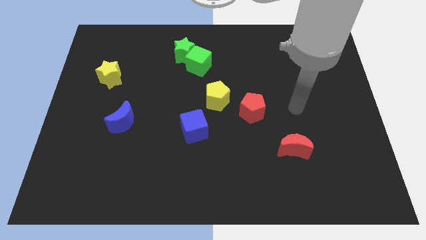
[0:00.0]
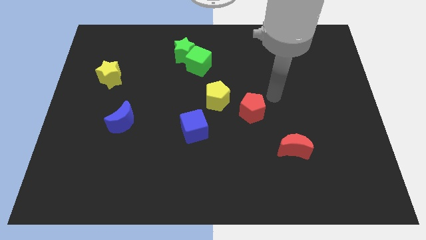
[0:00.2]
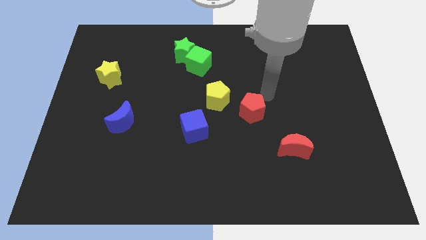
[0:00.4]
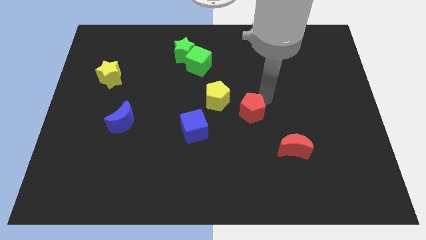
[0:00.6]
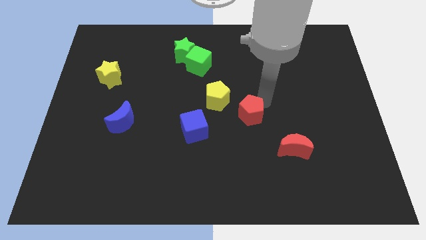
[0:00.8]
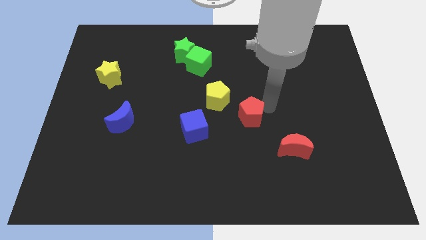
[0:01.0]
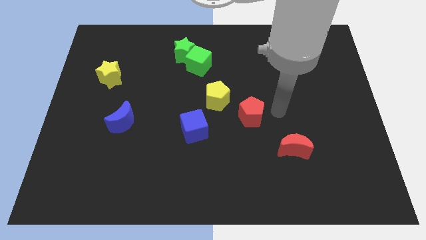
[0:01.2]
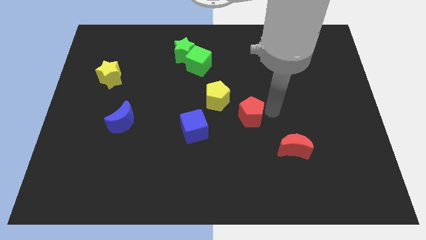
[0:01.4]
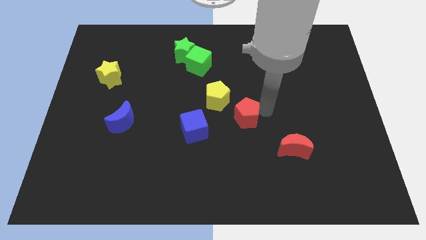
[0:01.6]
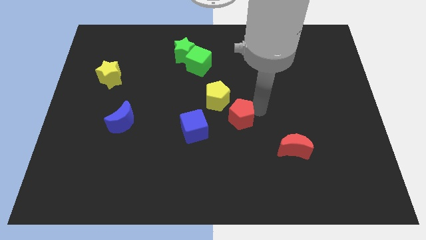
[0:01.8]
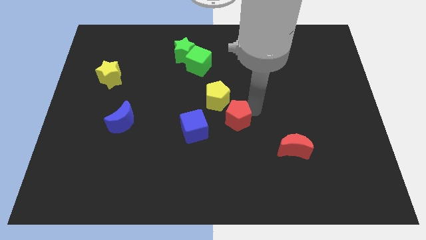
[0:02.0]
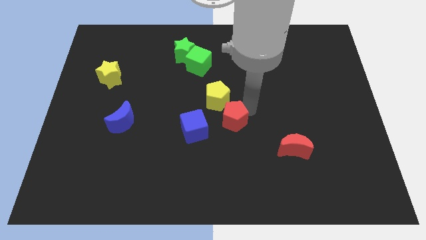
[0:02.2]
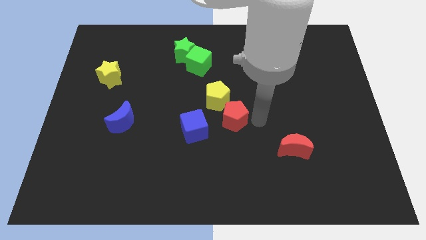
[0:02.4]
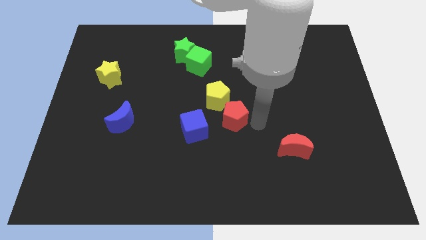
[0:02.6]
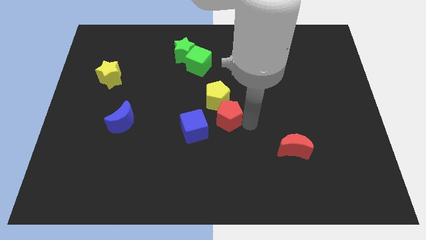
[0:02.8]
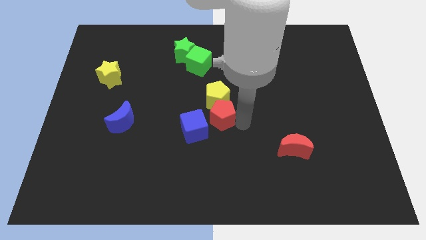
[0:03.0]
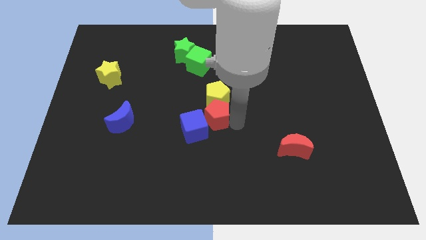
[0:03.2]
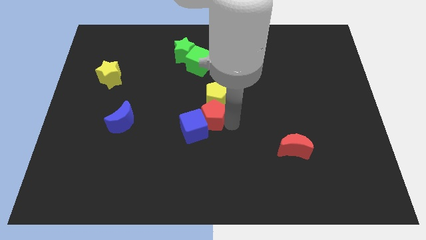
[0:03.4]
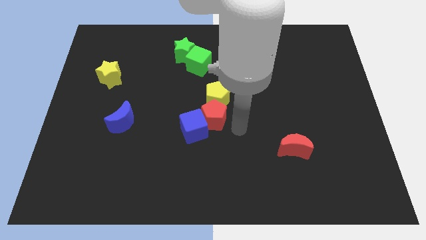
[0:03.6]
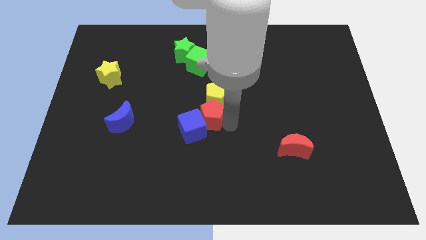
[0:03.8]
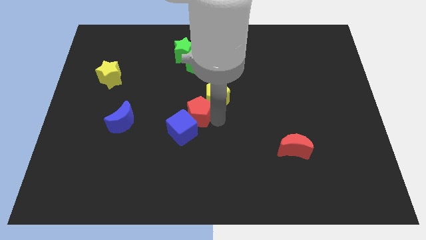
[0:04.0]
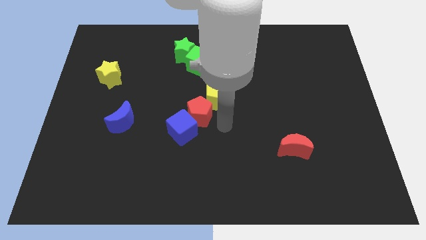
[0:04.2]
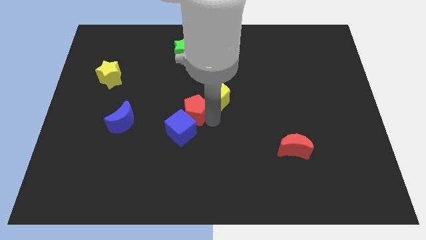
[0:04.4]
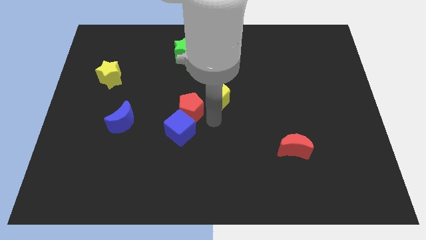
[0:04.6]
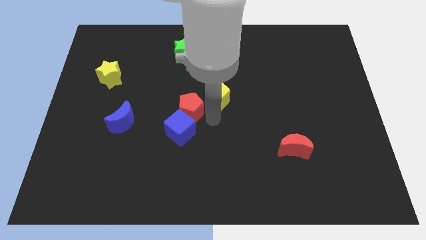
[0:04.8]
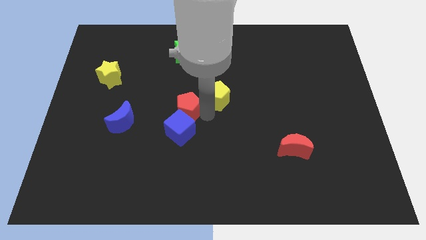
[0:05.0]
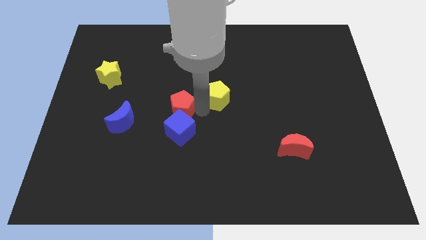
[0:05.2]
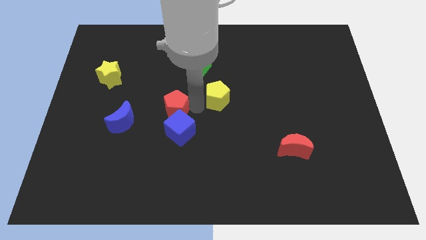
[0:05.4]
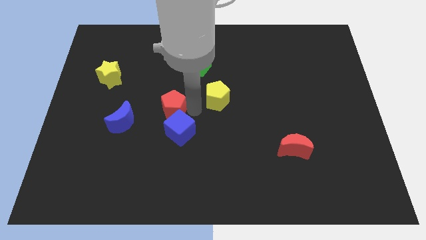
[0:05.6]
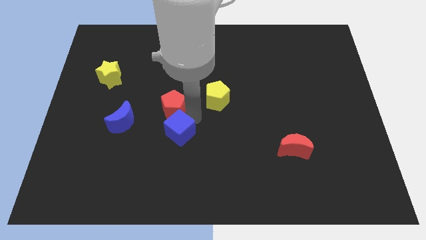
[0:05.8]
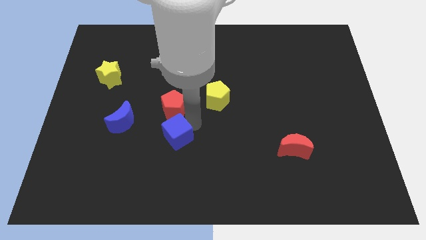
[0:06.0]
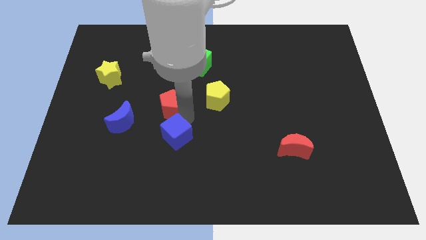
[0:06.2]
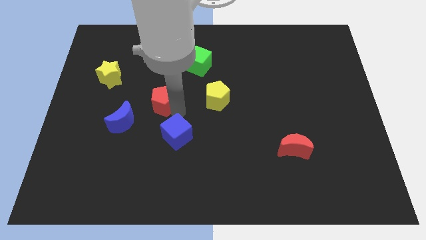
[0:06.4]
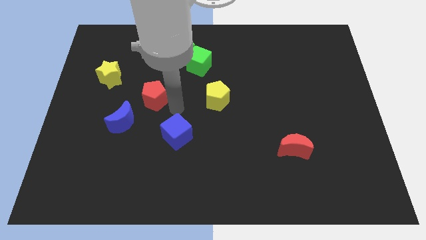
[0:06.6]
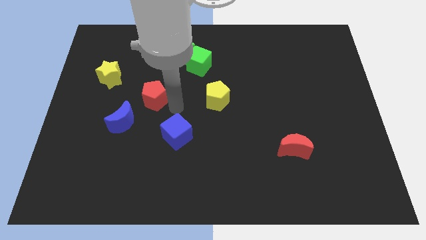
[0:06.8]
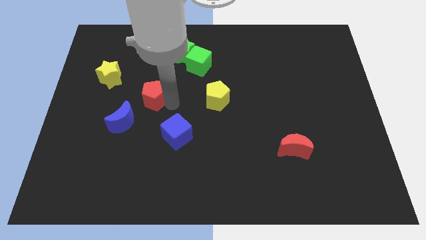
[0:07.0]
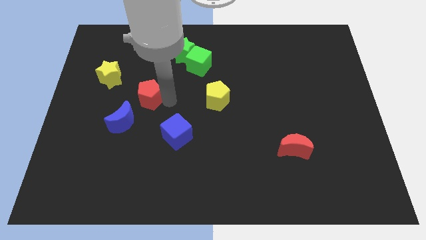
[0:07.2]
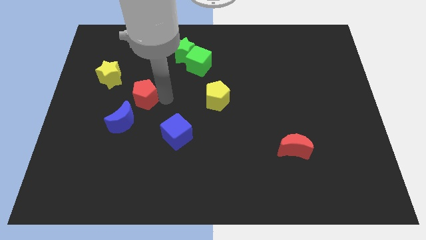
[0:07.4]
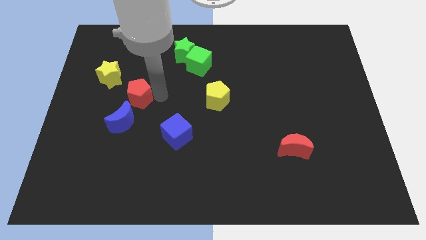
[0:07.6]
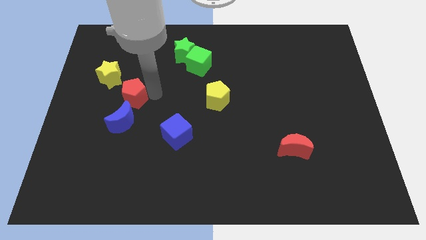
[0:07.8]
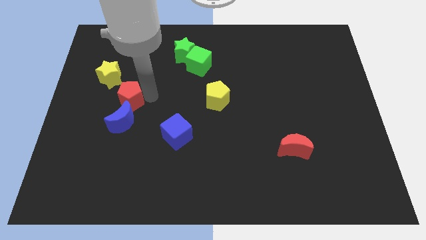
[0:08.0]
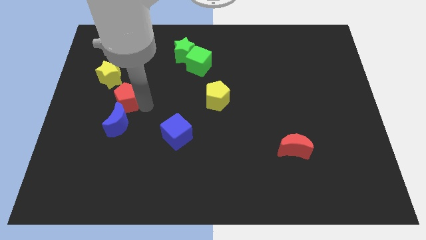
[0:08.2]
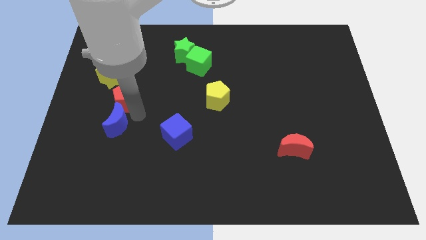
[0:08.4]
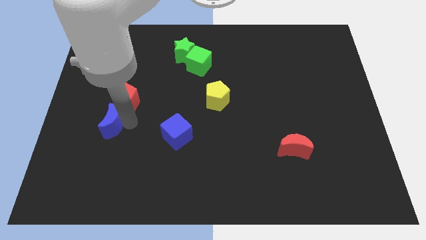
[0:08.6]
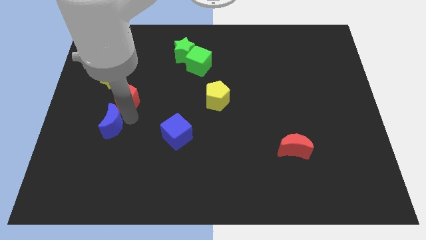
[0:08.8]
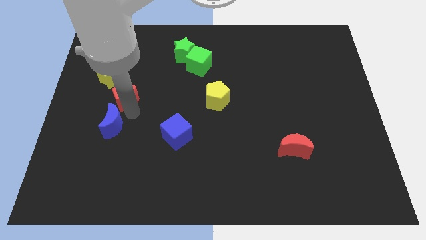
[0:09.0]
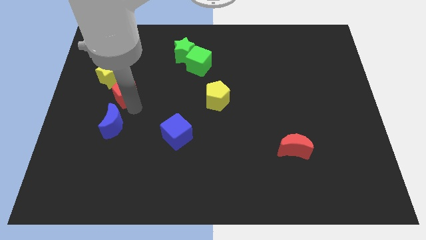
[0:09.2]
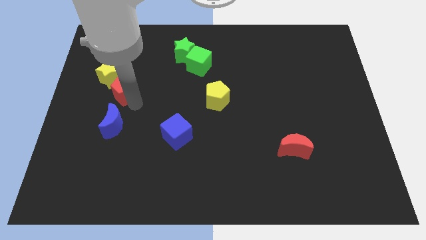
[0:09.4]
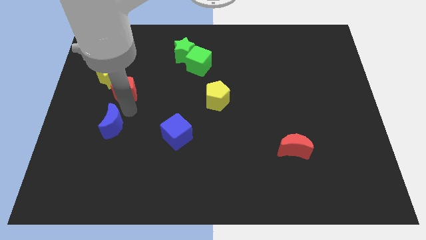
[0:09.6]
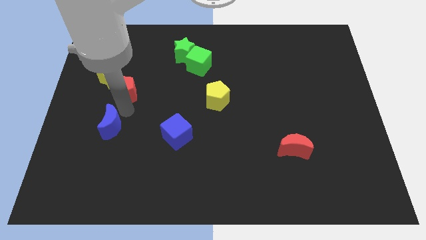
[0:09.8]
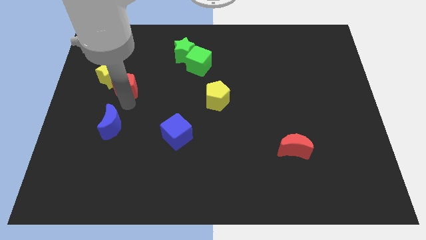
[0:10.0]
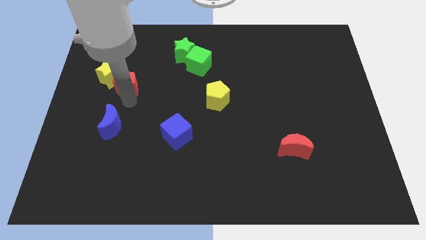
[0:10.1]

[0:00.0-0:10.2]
slide the red pentagon to the yellow star

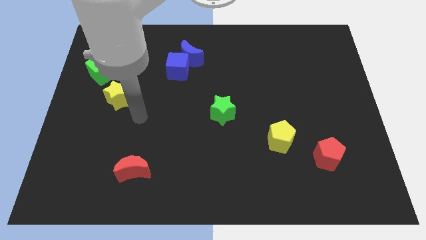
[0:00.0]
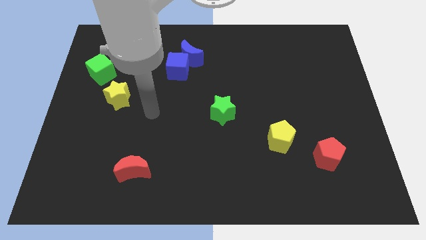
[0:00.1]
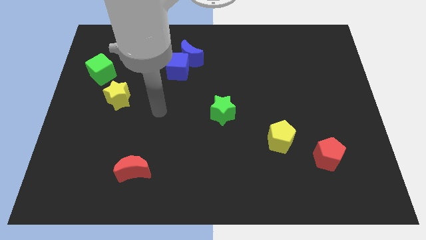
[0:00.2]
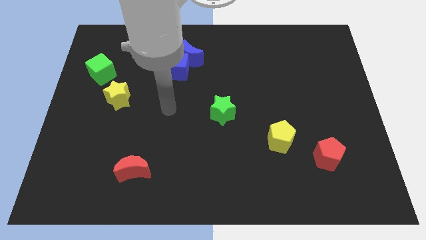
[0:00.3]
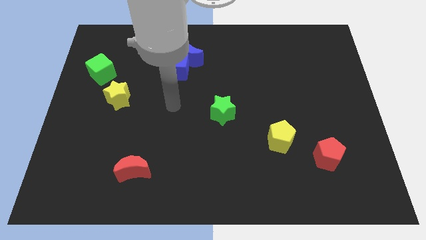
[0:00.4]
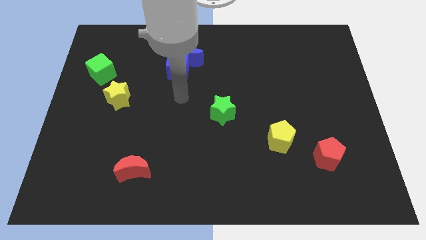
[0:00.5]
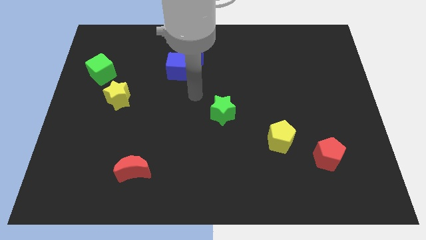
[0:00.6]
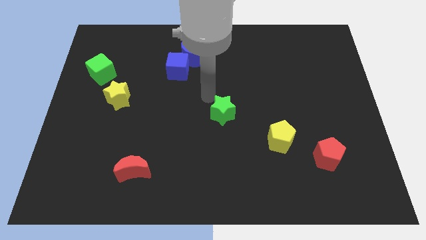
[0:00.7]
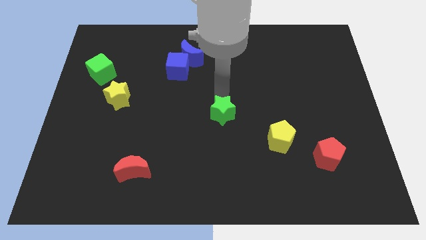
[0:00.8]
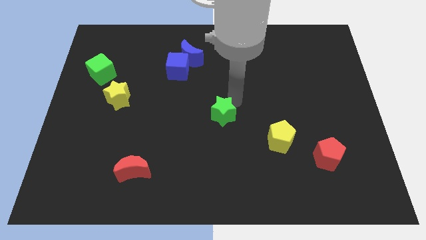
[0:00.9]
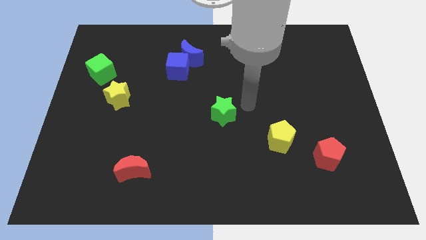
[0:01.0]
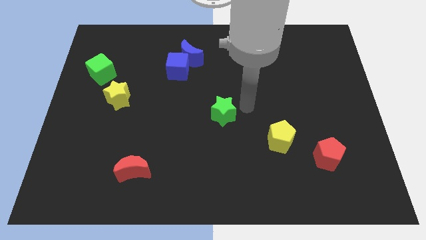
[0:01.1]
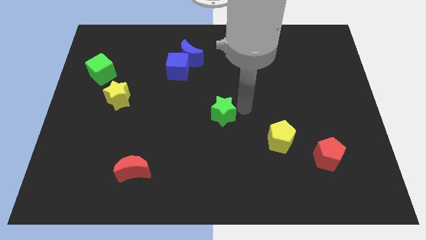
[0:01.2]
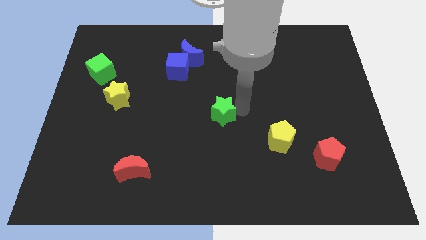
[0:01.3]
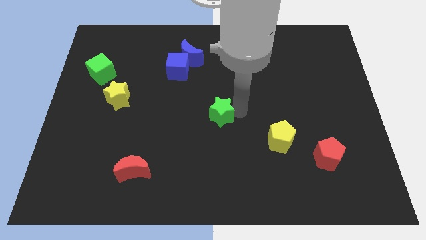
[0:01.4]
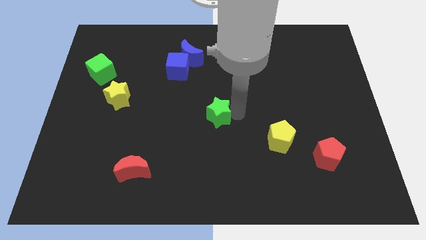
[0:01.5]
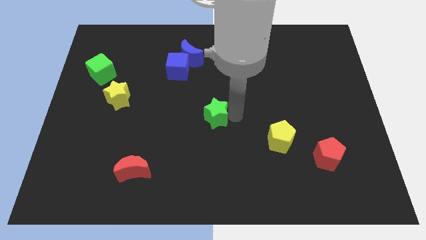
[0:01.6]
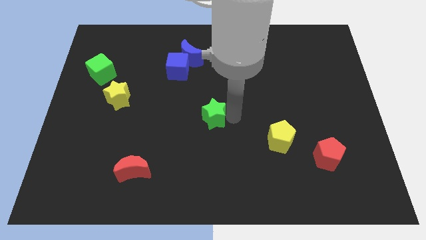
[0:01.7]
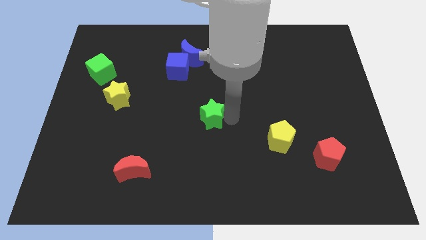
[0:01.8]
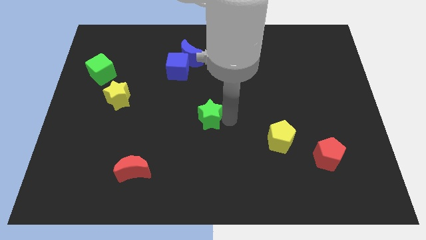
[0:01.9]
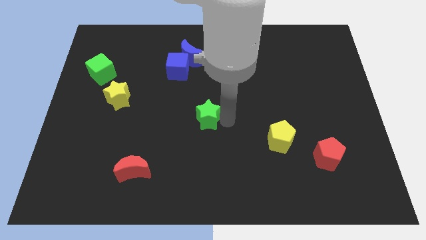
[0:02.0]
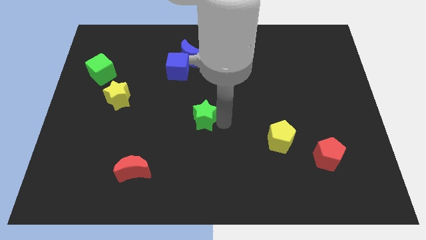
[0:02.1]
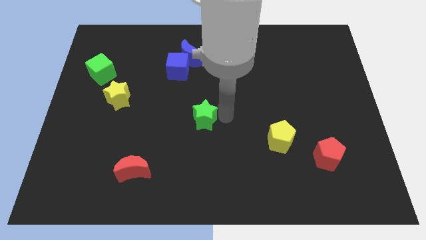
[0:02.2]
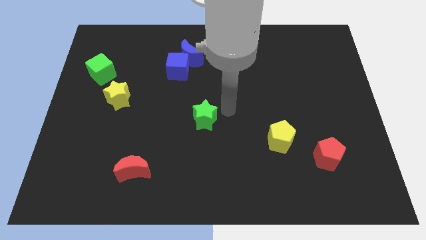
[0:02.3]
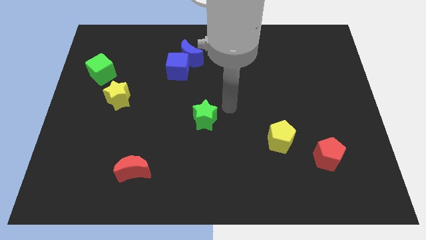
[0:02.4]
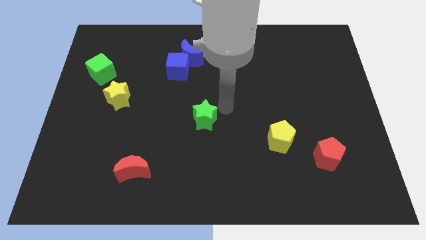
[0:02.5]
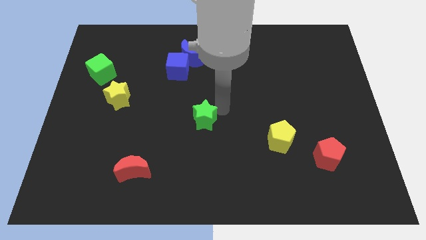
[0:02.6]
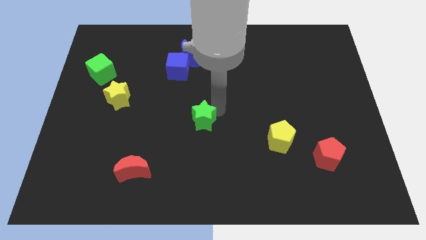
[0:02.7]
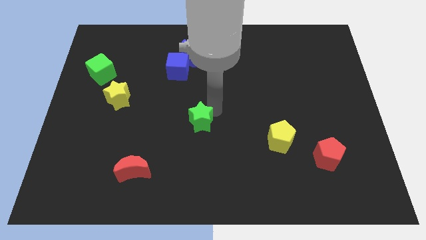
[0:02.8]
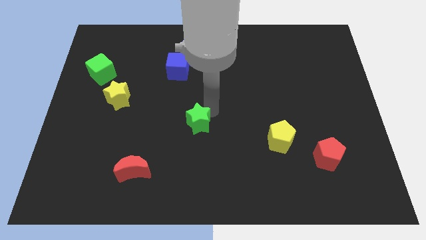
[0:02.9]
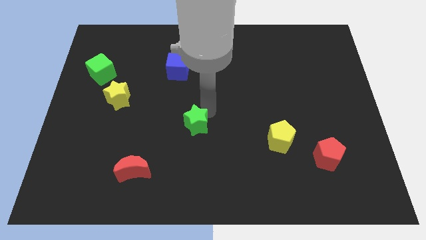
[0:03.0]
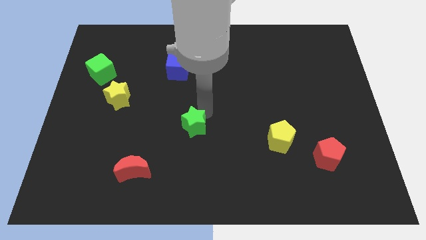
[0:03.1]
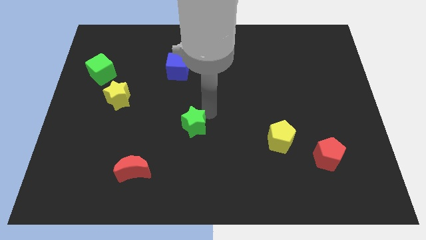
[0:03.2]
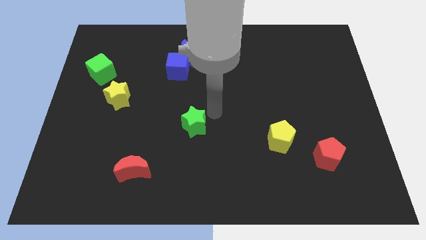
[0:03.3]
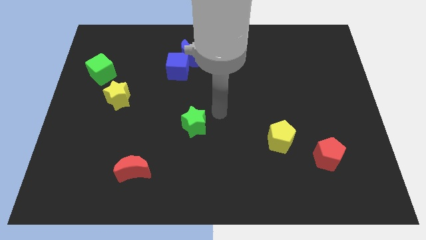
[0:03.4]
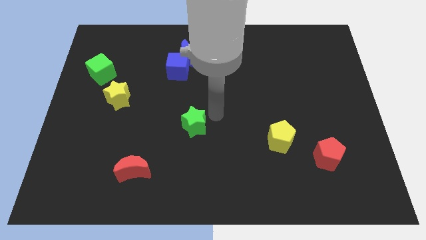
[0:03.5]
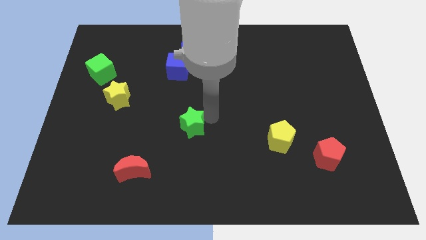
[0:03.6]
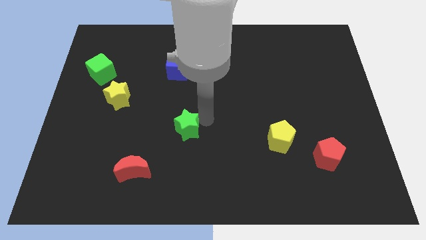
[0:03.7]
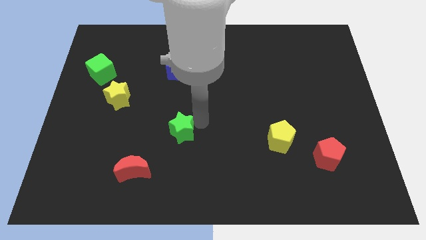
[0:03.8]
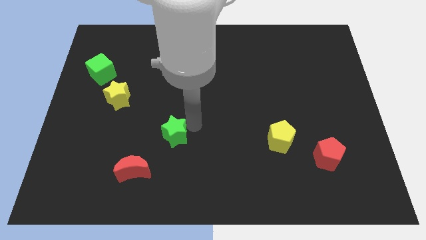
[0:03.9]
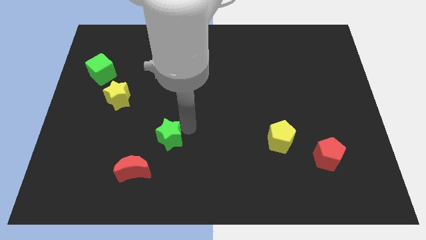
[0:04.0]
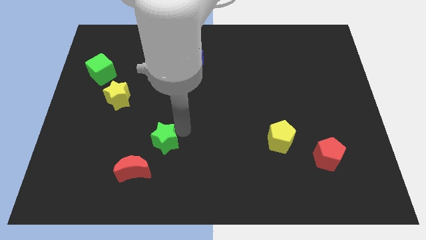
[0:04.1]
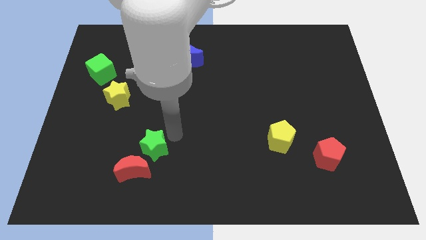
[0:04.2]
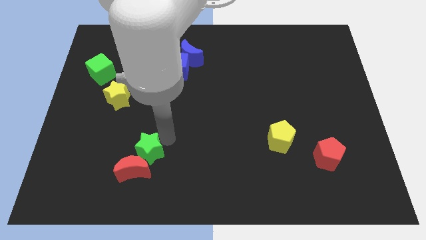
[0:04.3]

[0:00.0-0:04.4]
push the green star close to the red moon
